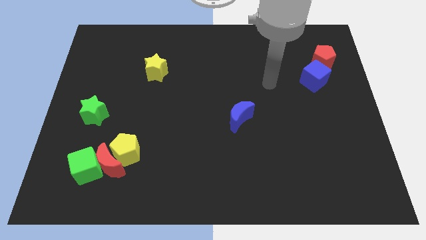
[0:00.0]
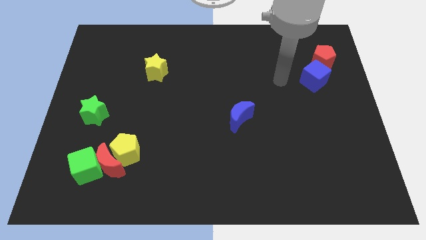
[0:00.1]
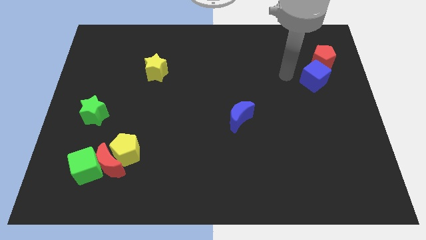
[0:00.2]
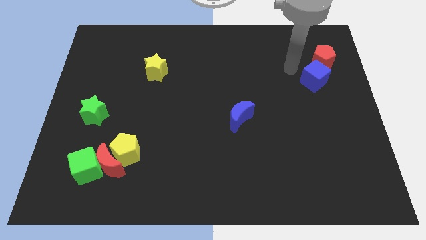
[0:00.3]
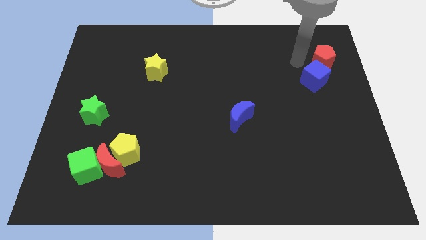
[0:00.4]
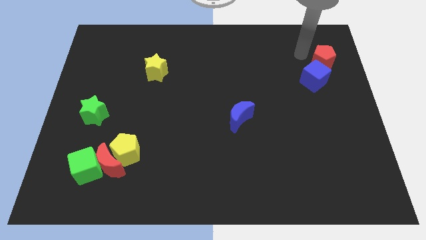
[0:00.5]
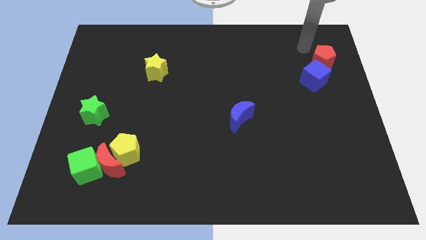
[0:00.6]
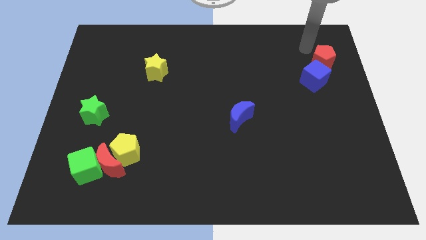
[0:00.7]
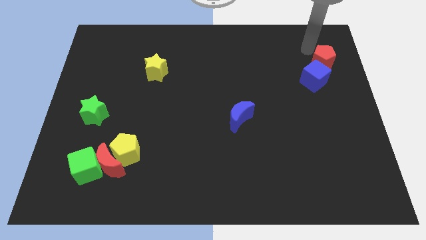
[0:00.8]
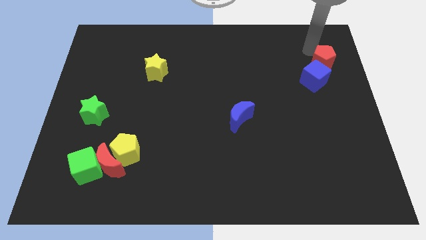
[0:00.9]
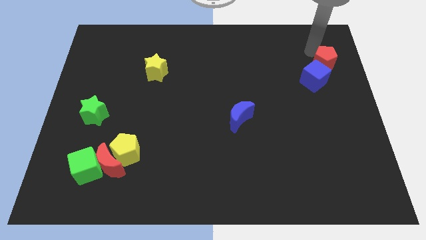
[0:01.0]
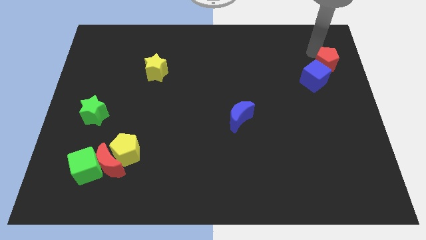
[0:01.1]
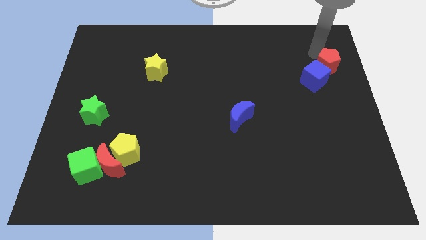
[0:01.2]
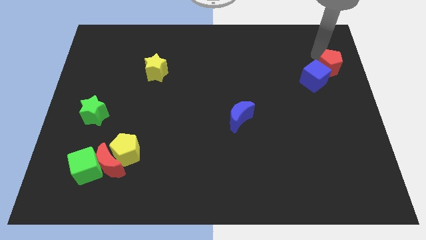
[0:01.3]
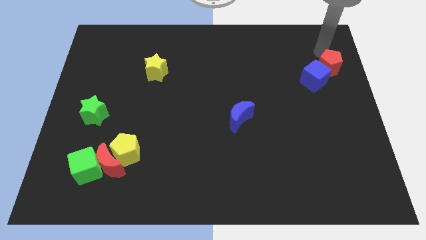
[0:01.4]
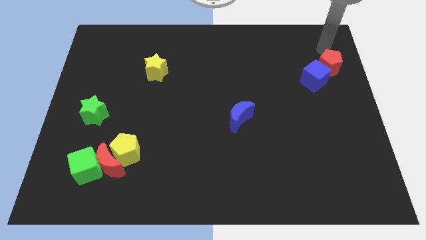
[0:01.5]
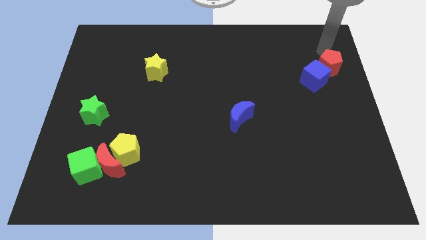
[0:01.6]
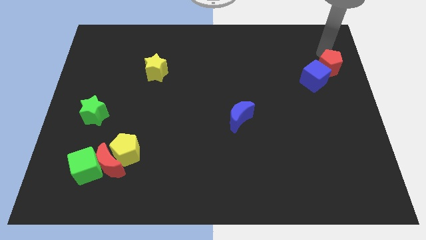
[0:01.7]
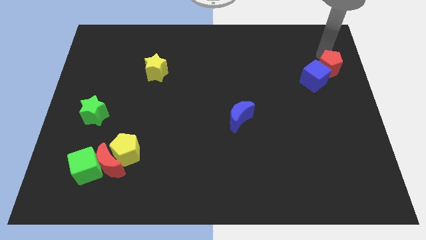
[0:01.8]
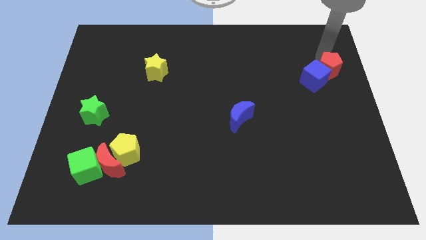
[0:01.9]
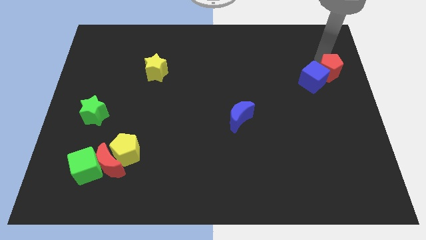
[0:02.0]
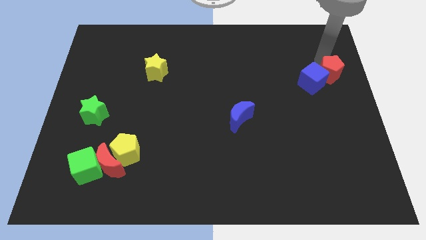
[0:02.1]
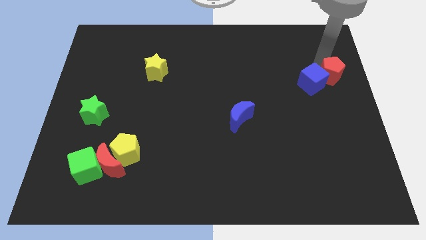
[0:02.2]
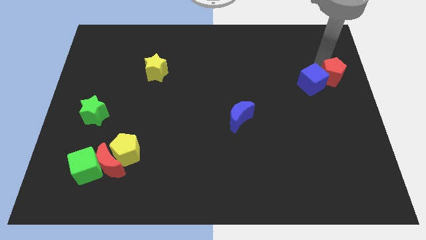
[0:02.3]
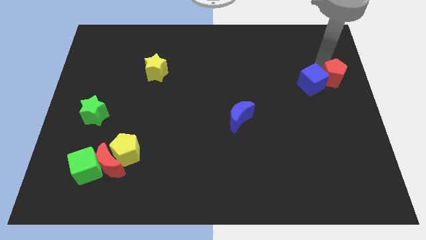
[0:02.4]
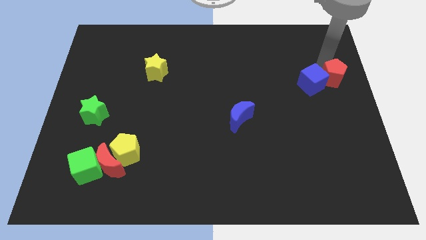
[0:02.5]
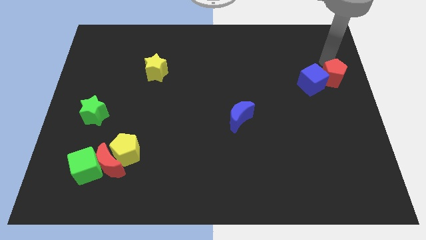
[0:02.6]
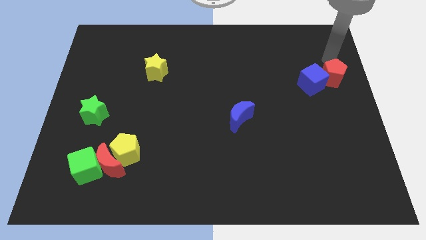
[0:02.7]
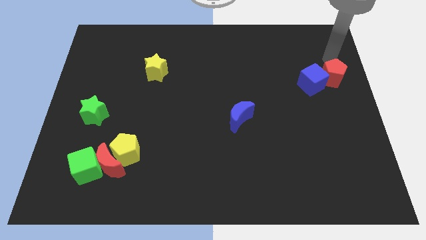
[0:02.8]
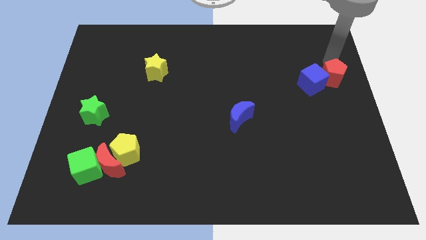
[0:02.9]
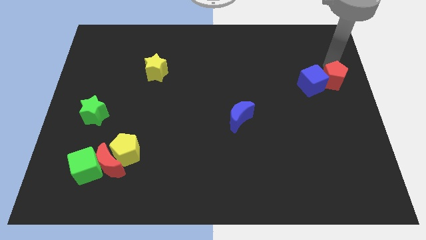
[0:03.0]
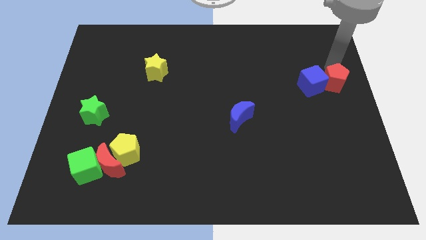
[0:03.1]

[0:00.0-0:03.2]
move the red pentagon down a little bit

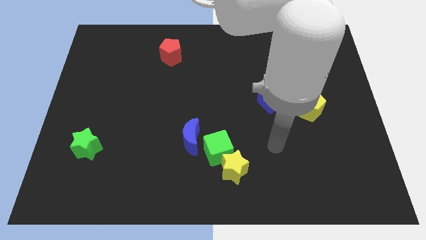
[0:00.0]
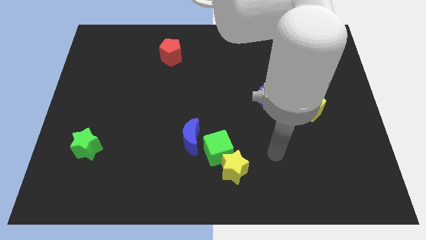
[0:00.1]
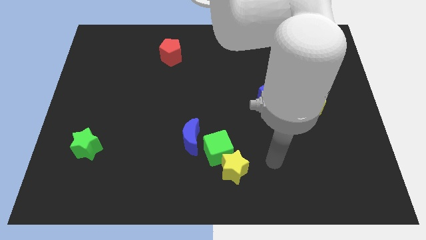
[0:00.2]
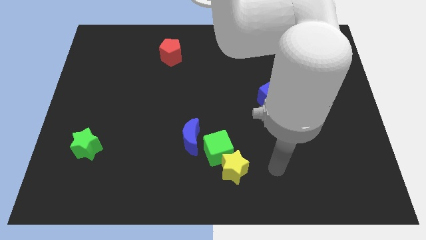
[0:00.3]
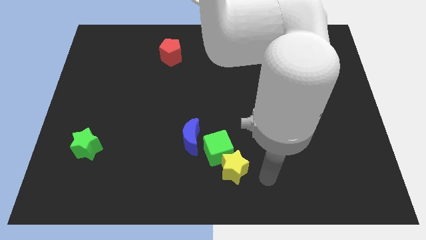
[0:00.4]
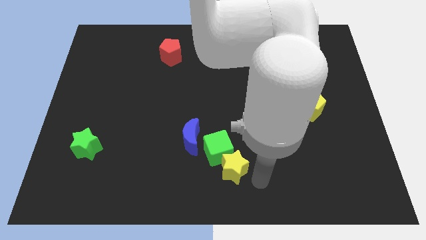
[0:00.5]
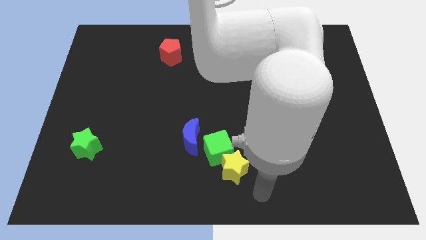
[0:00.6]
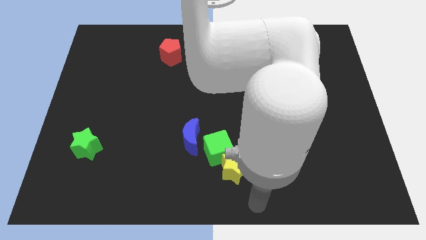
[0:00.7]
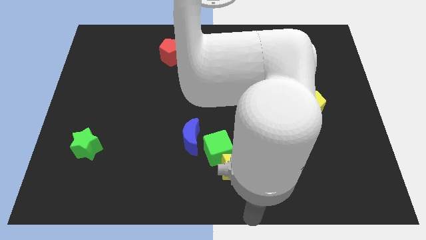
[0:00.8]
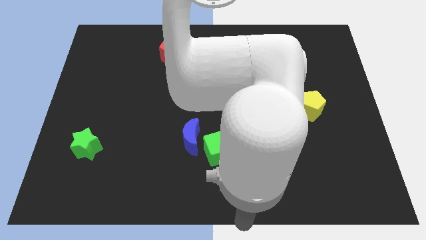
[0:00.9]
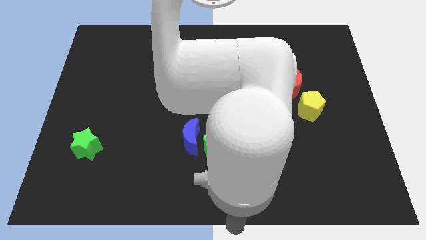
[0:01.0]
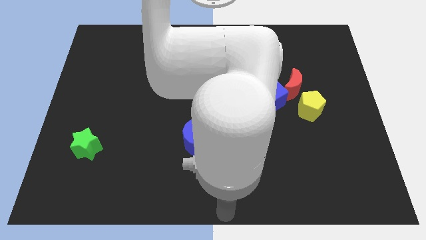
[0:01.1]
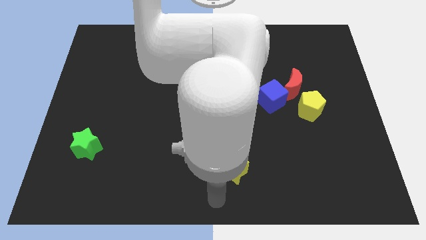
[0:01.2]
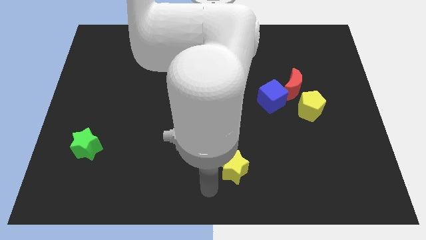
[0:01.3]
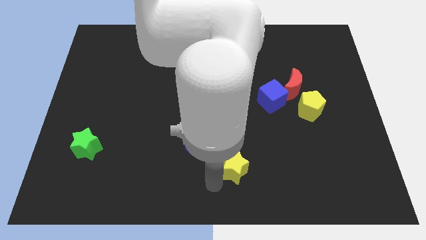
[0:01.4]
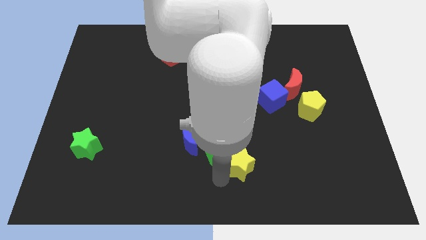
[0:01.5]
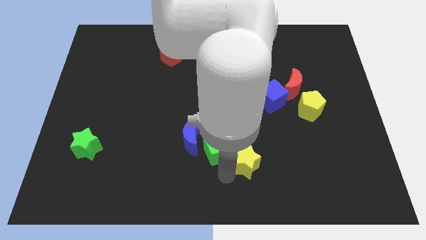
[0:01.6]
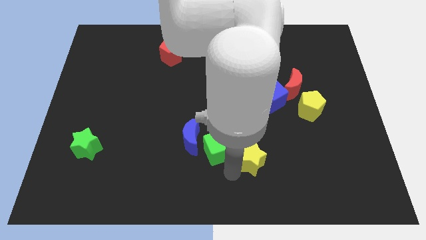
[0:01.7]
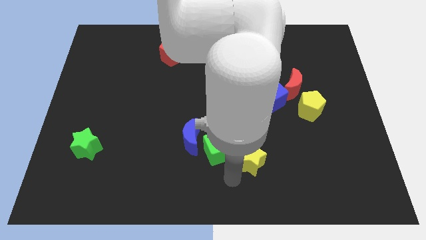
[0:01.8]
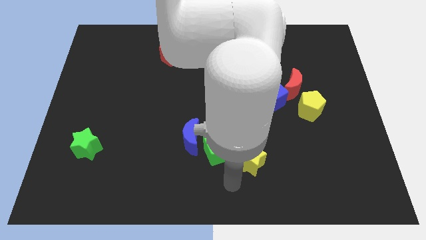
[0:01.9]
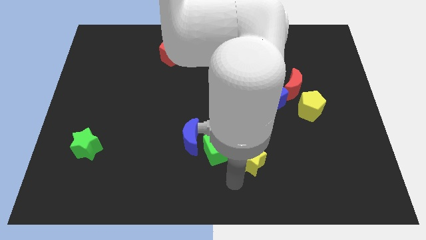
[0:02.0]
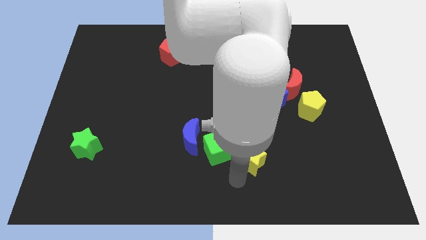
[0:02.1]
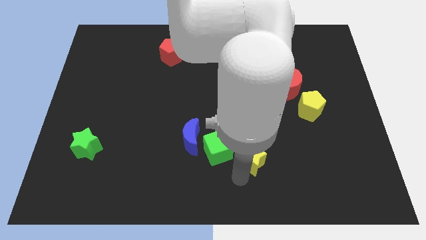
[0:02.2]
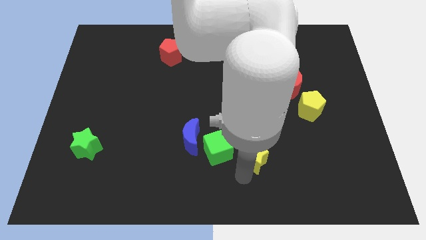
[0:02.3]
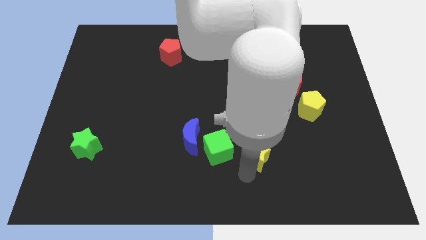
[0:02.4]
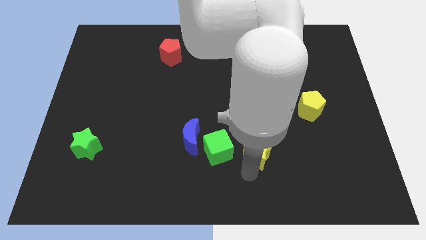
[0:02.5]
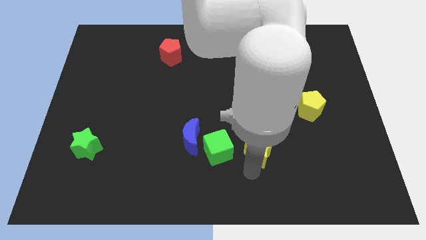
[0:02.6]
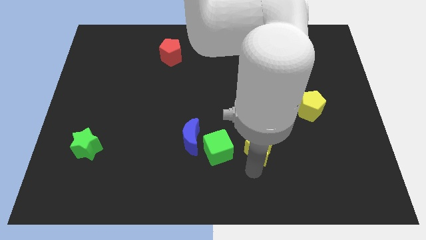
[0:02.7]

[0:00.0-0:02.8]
slightly move the yellow star upwards and then right

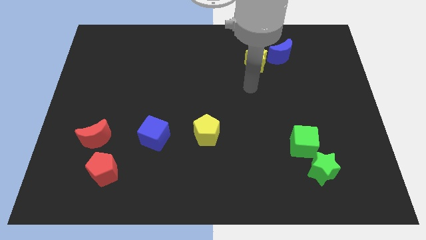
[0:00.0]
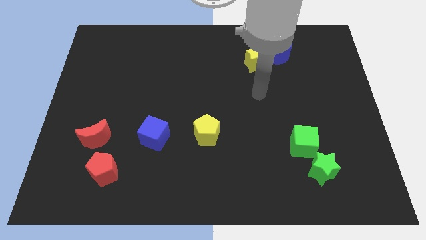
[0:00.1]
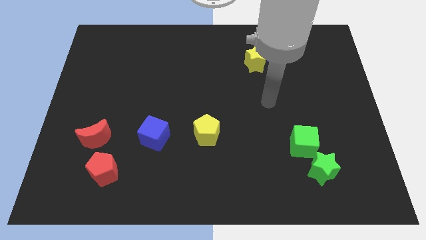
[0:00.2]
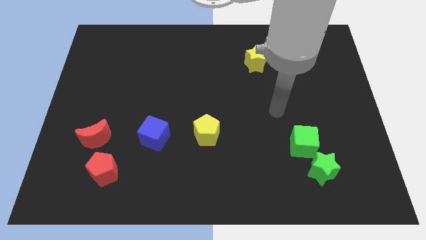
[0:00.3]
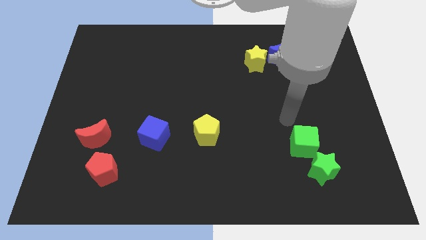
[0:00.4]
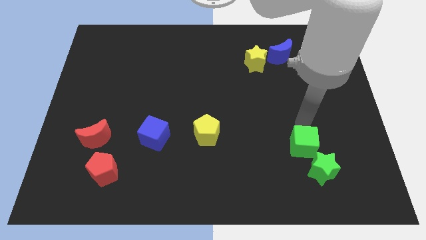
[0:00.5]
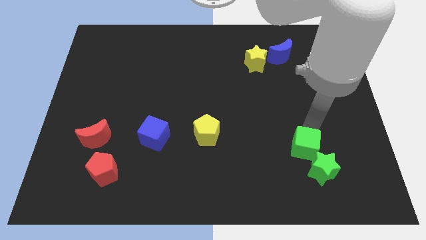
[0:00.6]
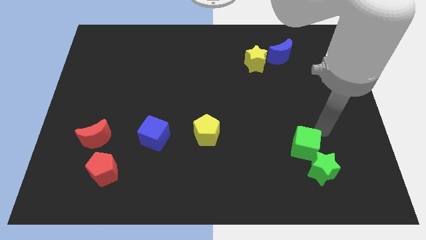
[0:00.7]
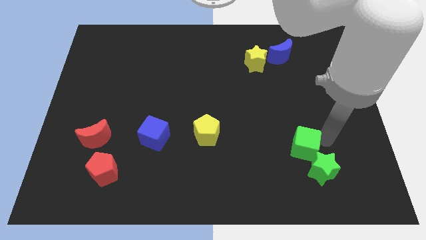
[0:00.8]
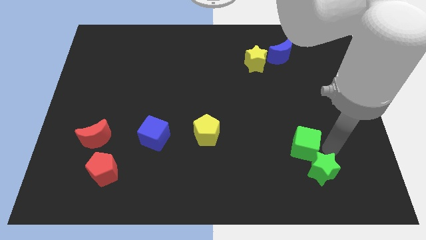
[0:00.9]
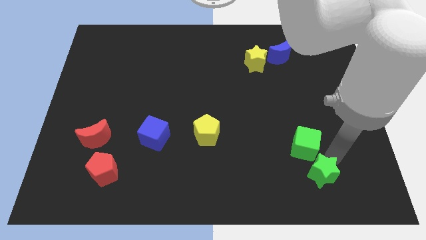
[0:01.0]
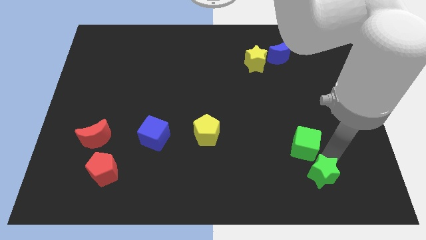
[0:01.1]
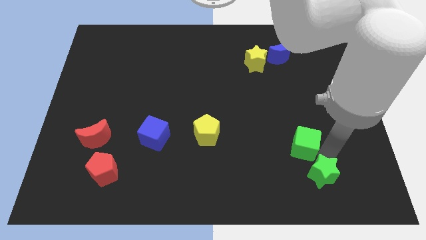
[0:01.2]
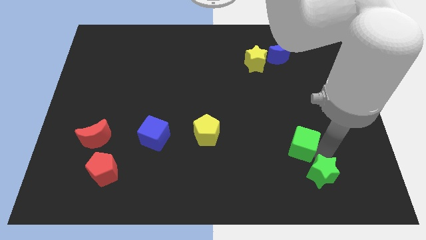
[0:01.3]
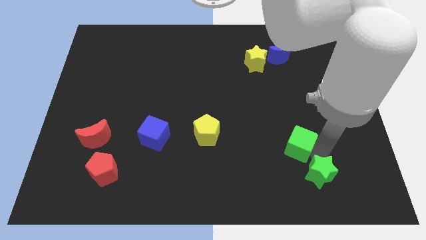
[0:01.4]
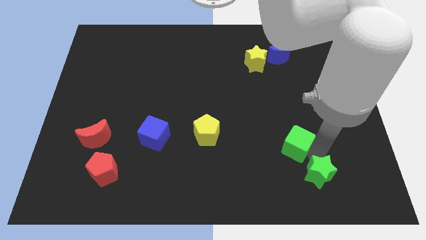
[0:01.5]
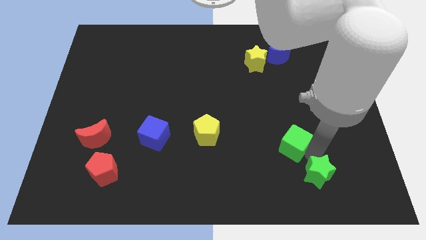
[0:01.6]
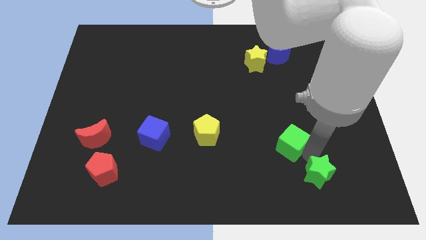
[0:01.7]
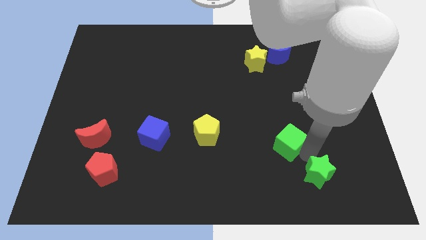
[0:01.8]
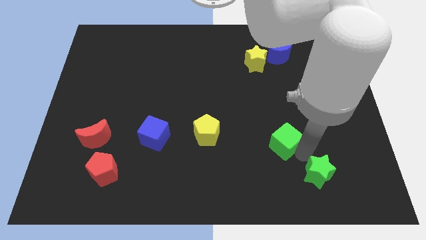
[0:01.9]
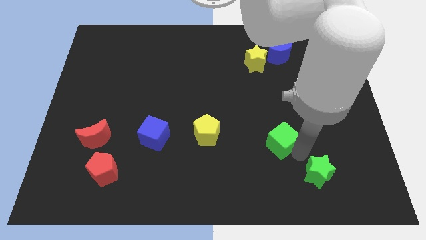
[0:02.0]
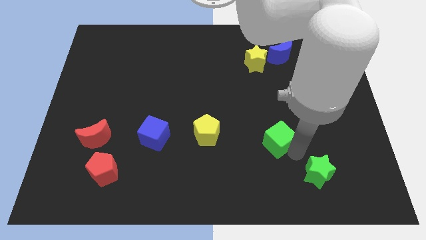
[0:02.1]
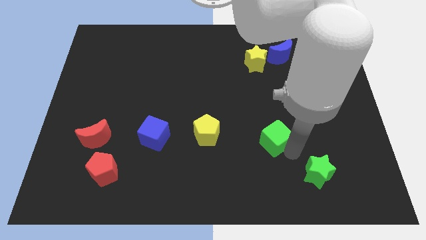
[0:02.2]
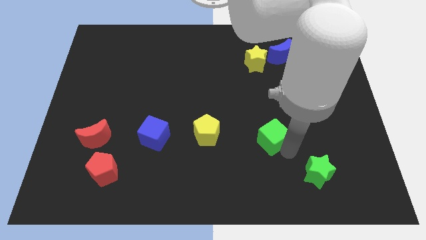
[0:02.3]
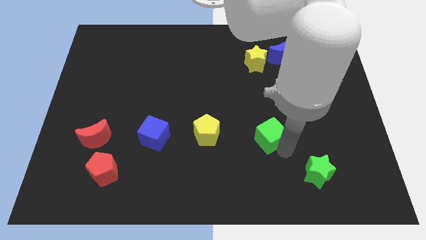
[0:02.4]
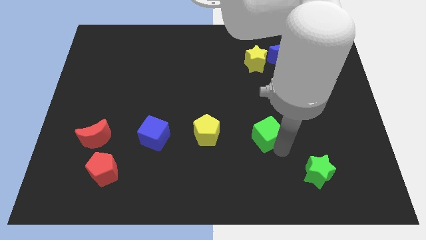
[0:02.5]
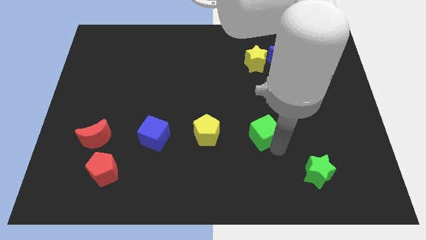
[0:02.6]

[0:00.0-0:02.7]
slide the green cube upwards and left diagonally a bit
